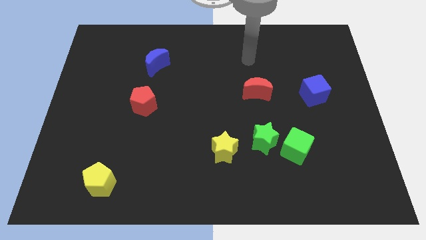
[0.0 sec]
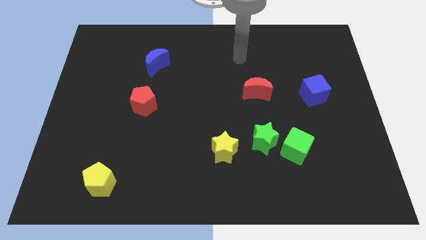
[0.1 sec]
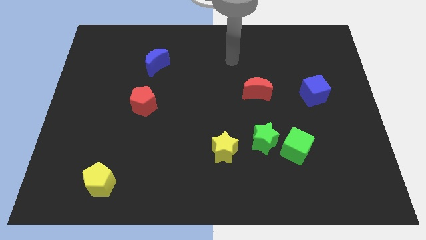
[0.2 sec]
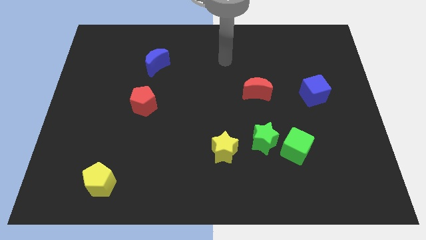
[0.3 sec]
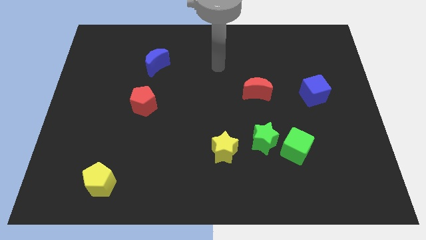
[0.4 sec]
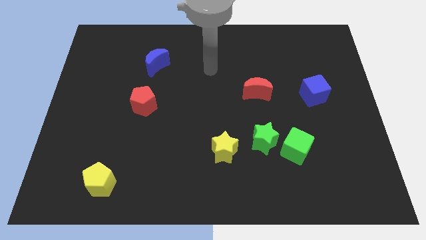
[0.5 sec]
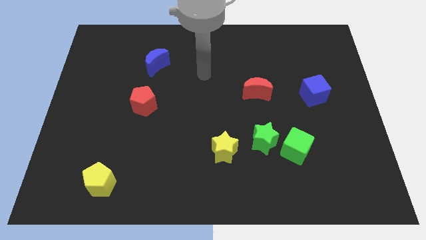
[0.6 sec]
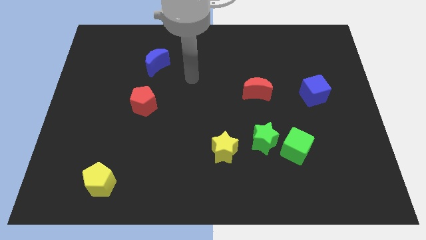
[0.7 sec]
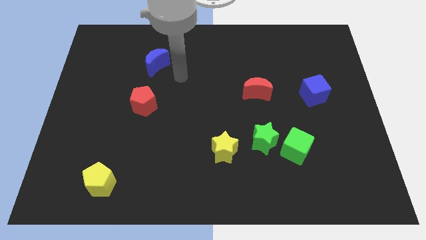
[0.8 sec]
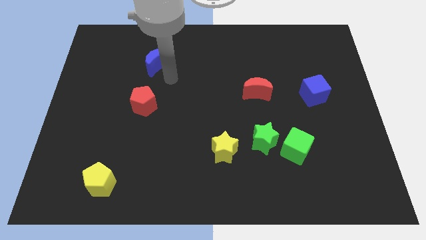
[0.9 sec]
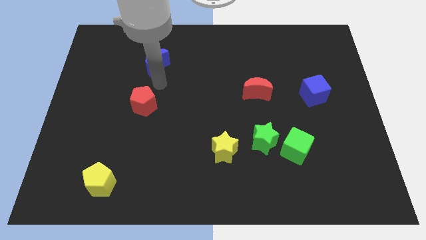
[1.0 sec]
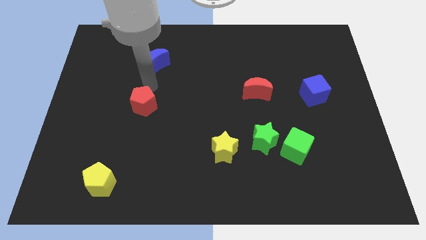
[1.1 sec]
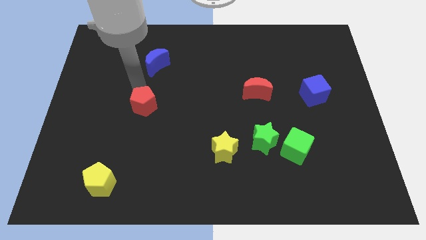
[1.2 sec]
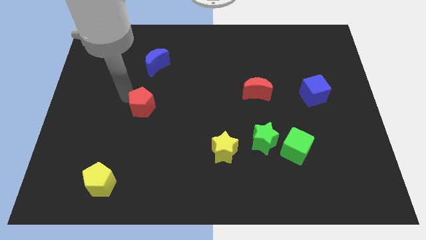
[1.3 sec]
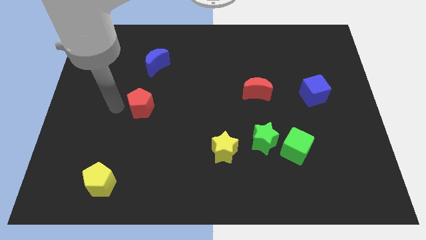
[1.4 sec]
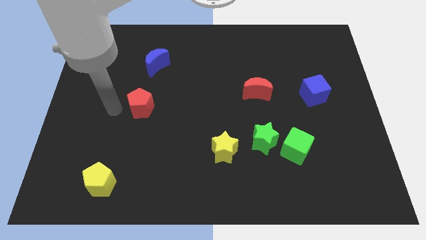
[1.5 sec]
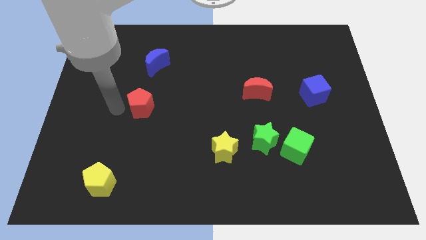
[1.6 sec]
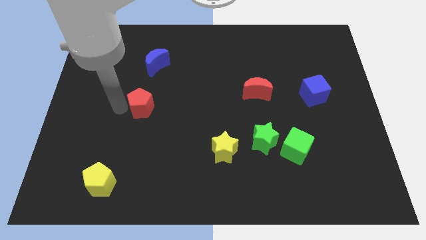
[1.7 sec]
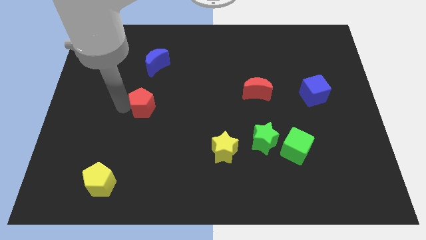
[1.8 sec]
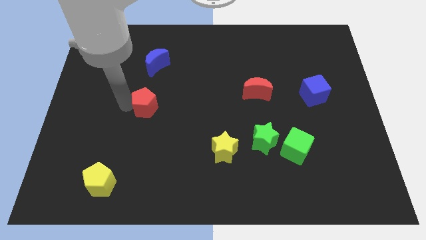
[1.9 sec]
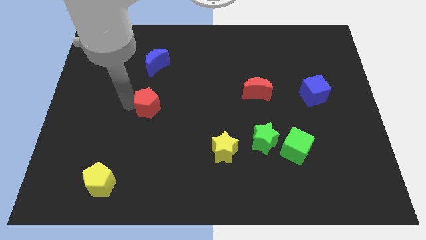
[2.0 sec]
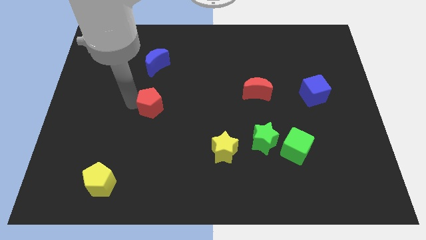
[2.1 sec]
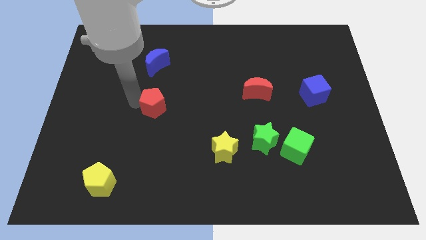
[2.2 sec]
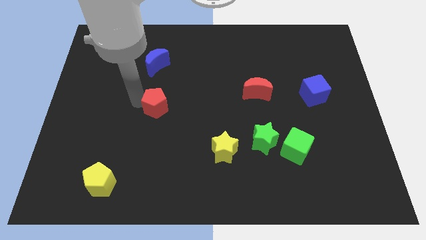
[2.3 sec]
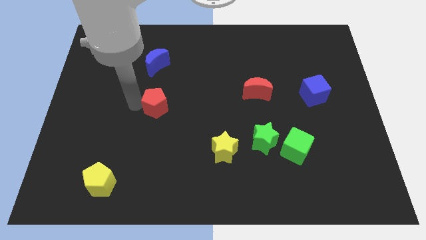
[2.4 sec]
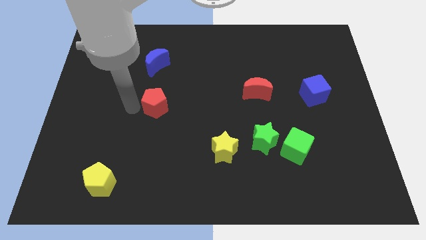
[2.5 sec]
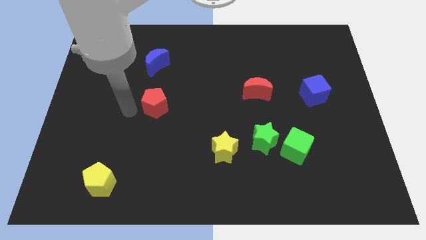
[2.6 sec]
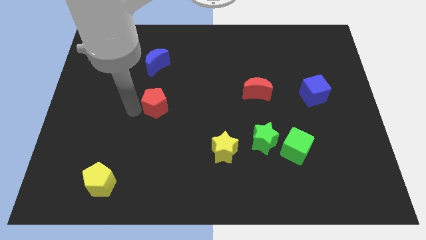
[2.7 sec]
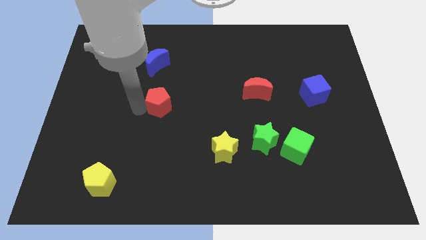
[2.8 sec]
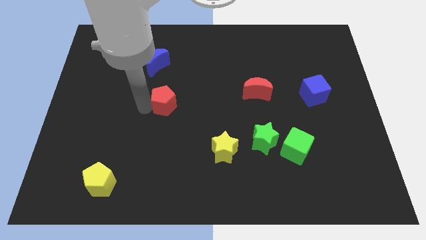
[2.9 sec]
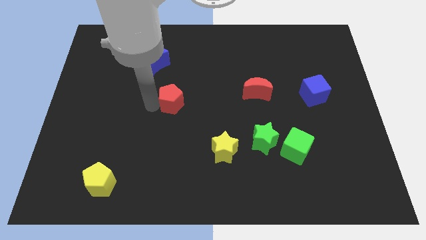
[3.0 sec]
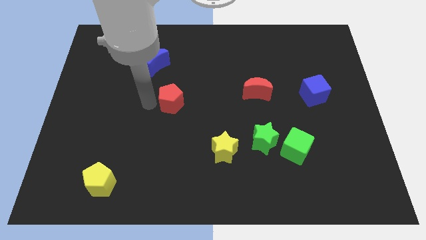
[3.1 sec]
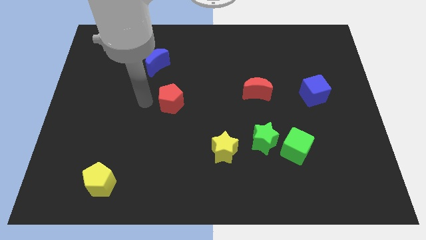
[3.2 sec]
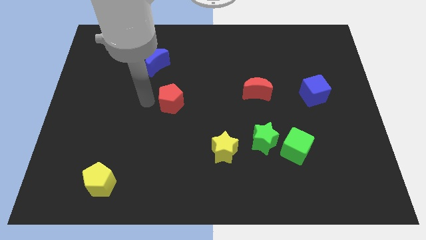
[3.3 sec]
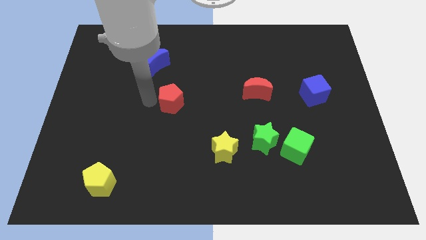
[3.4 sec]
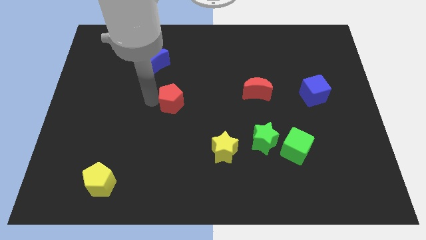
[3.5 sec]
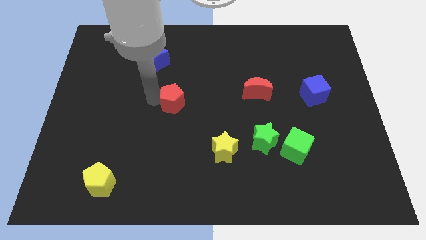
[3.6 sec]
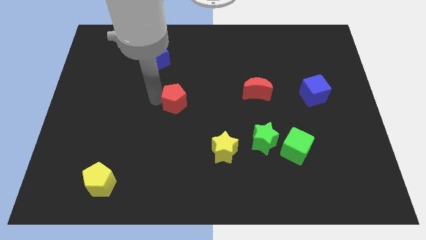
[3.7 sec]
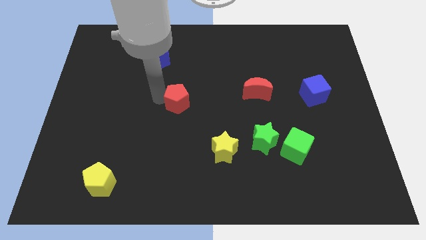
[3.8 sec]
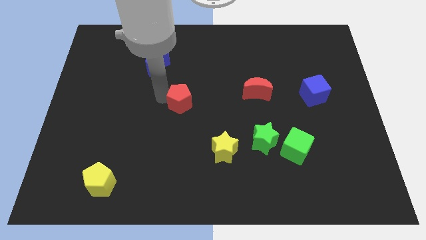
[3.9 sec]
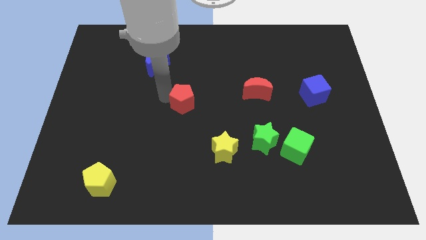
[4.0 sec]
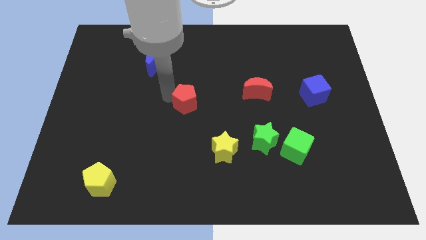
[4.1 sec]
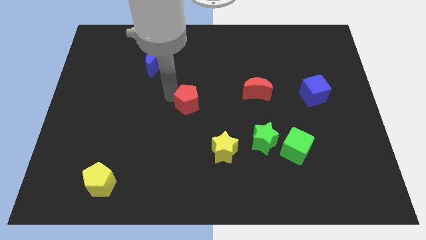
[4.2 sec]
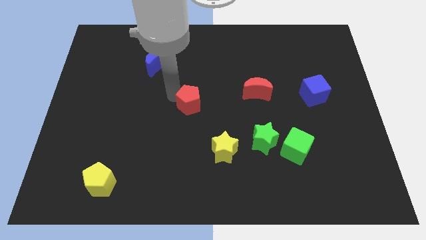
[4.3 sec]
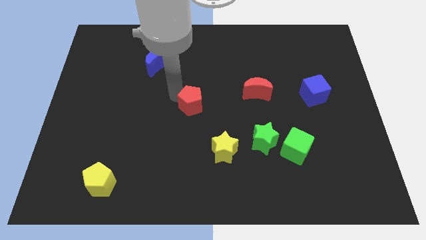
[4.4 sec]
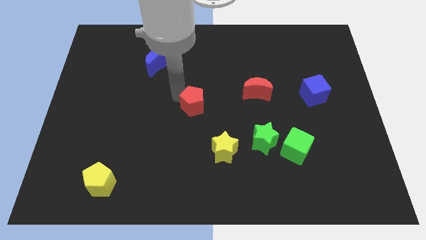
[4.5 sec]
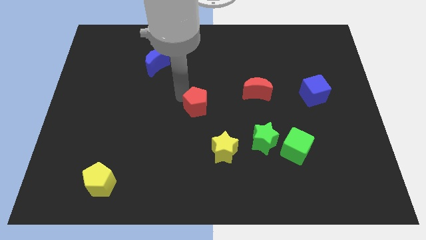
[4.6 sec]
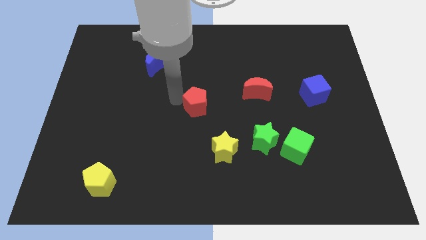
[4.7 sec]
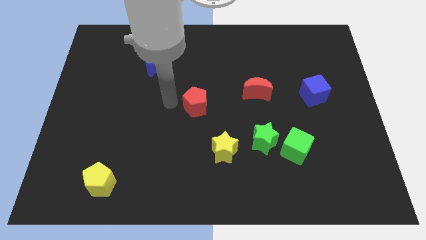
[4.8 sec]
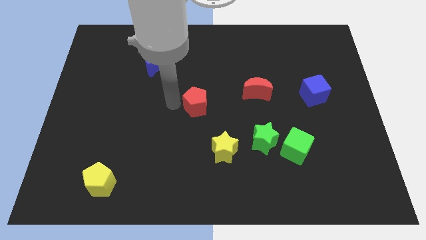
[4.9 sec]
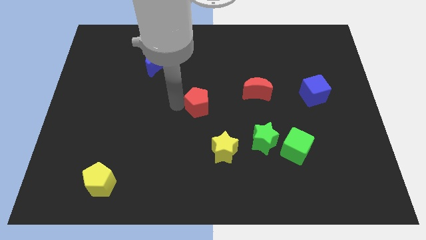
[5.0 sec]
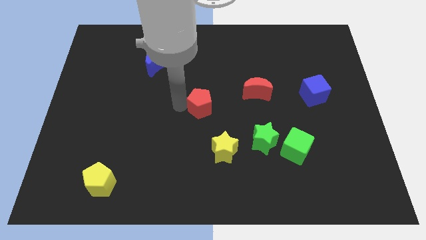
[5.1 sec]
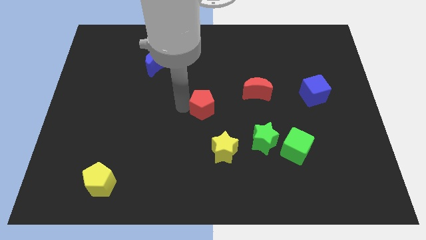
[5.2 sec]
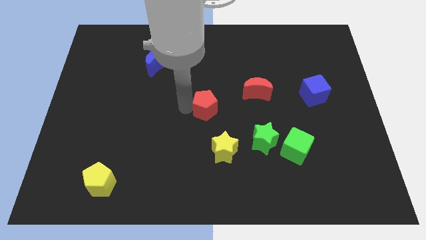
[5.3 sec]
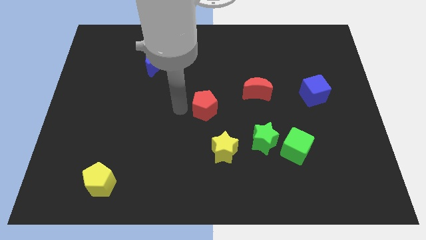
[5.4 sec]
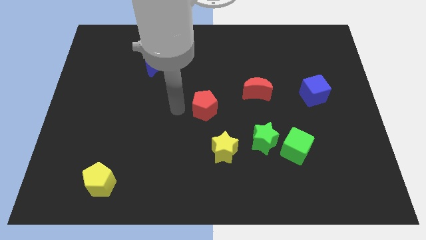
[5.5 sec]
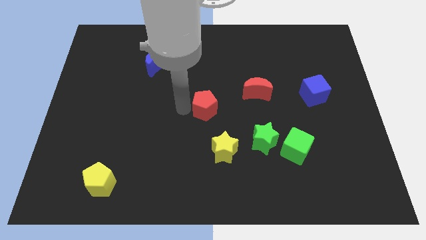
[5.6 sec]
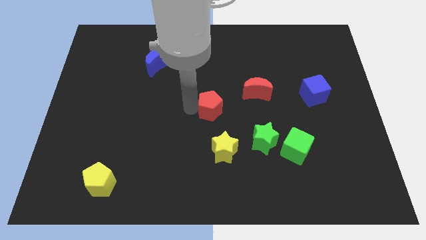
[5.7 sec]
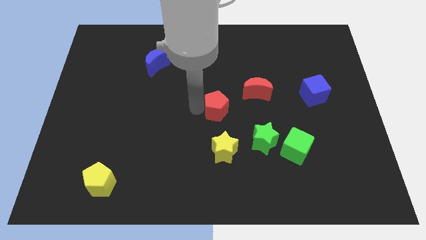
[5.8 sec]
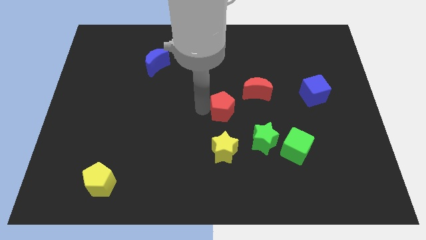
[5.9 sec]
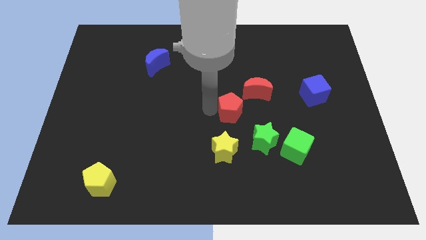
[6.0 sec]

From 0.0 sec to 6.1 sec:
push the red pentagon to the right

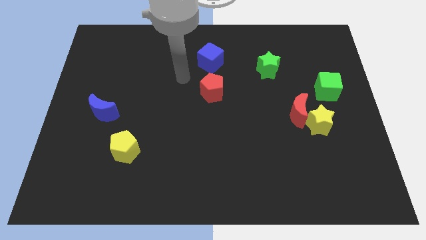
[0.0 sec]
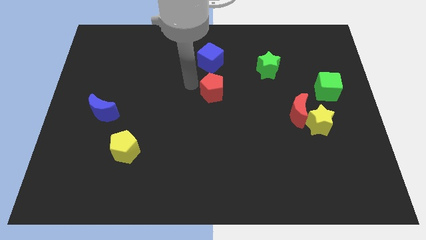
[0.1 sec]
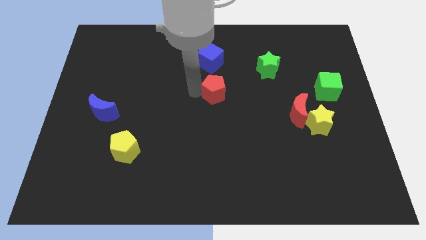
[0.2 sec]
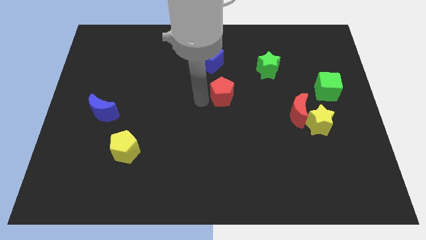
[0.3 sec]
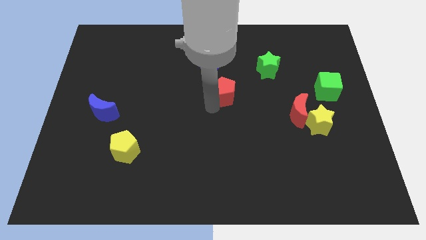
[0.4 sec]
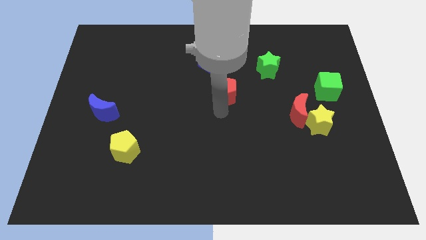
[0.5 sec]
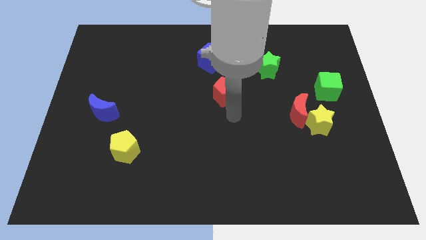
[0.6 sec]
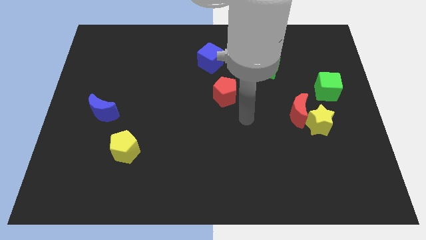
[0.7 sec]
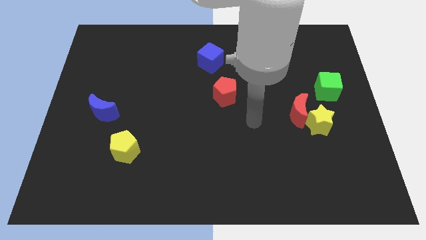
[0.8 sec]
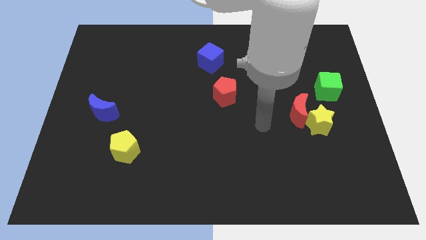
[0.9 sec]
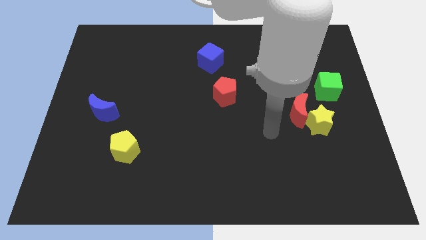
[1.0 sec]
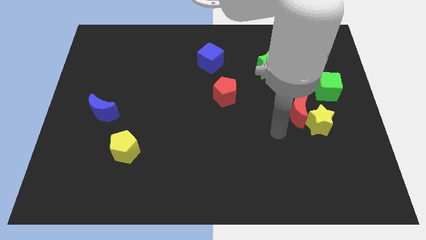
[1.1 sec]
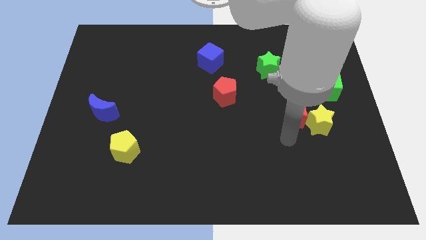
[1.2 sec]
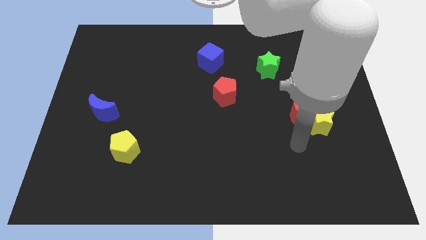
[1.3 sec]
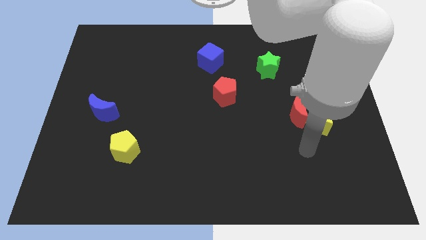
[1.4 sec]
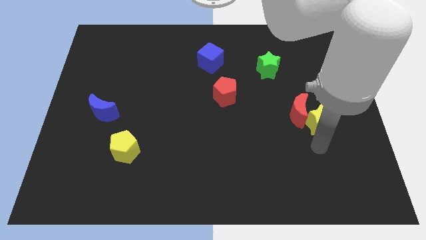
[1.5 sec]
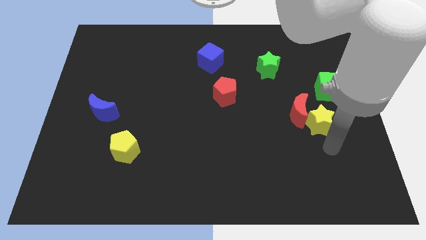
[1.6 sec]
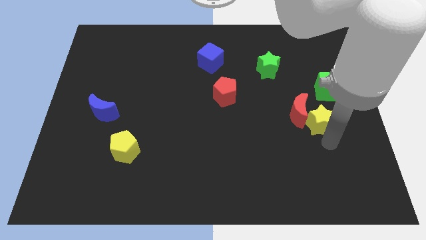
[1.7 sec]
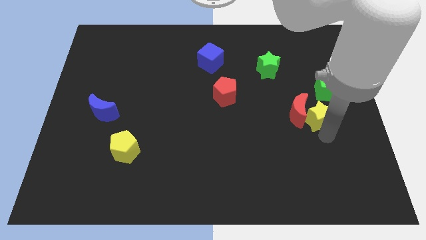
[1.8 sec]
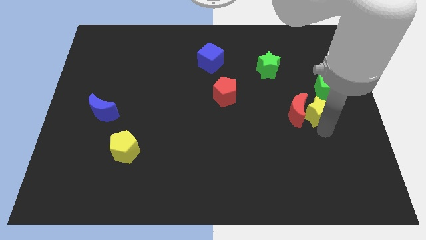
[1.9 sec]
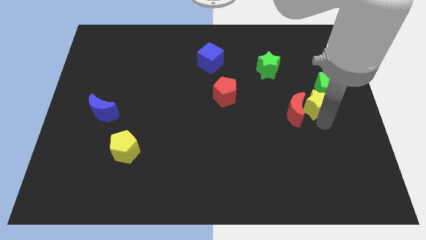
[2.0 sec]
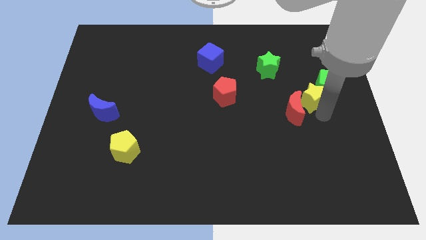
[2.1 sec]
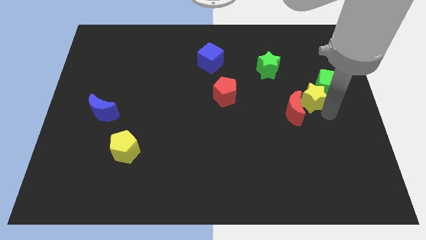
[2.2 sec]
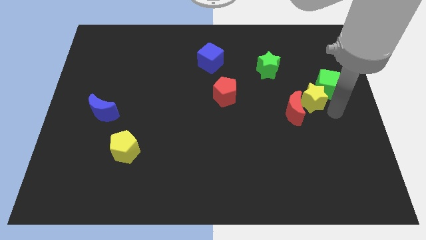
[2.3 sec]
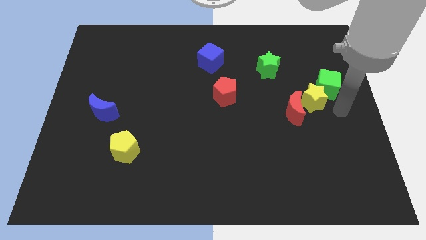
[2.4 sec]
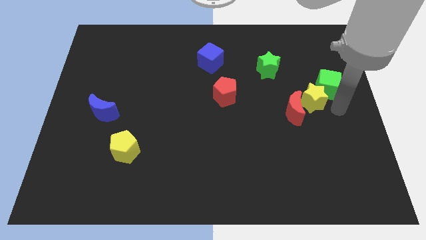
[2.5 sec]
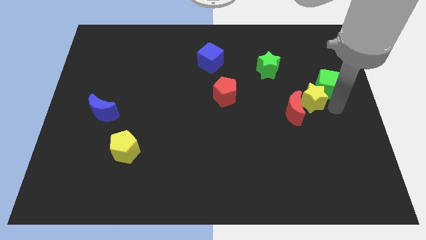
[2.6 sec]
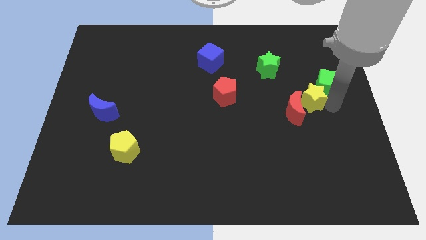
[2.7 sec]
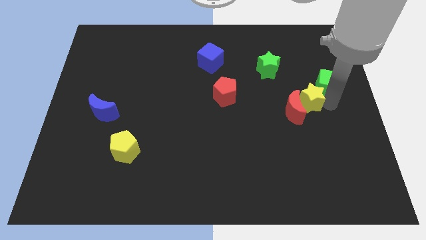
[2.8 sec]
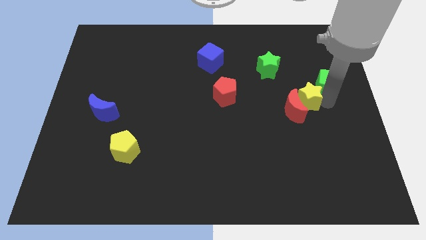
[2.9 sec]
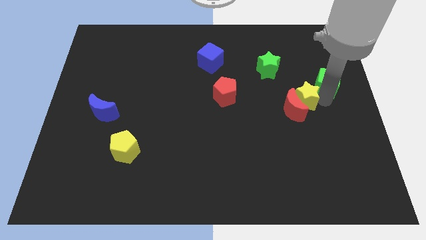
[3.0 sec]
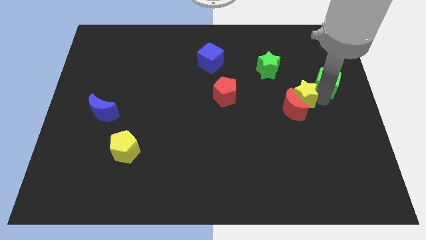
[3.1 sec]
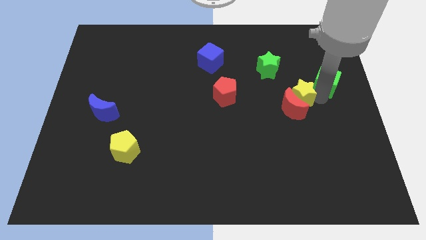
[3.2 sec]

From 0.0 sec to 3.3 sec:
move the yellow star up and left diagonally a little
